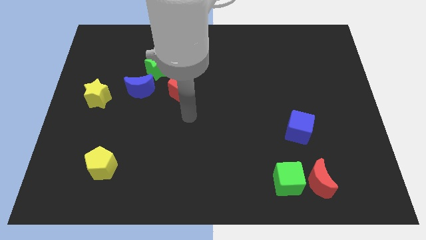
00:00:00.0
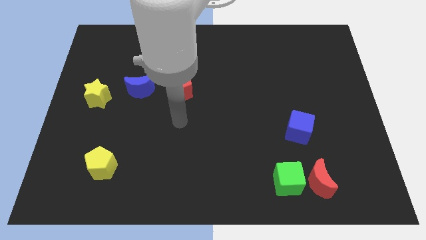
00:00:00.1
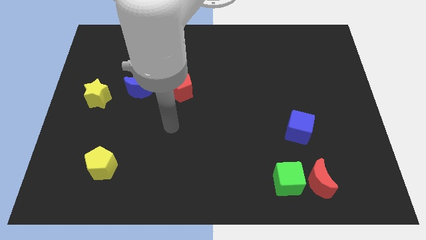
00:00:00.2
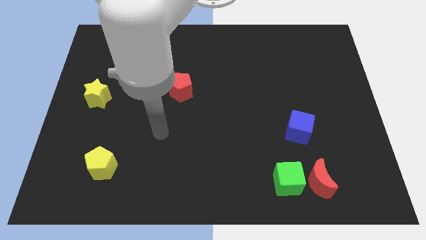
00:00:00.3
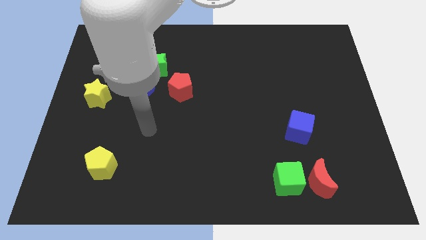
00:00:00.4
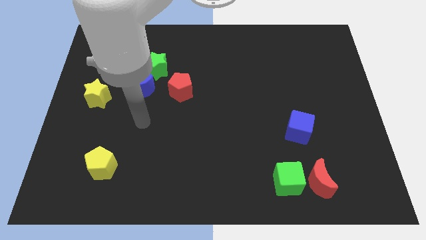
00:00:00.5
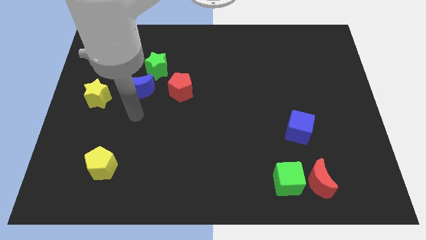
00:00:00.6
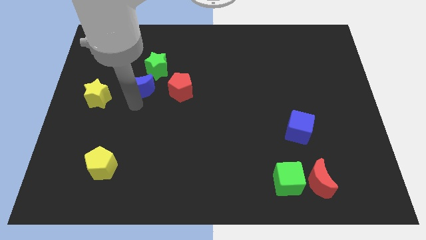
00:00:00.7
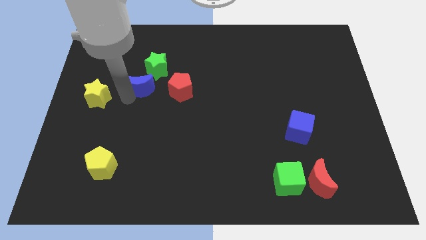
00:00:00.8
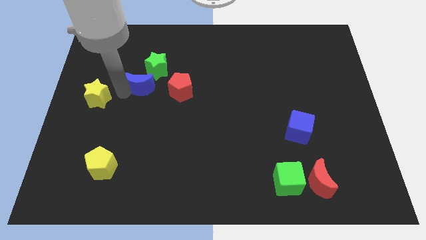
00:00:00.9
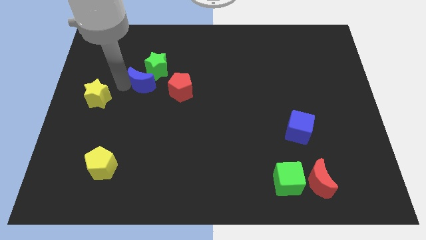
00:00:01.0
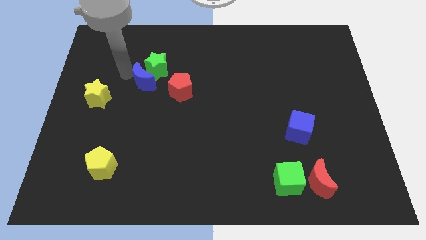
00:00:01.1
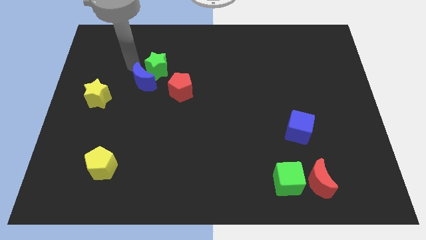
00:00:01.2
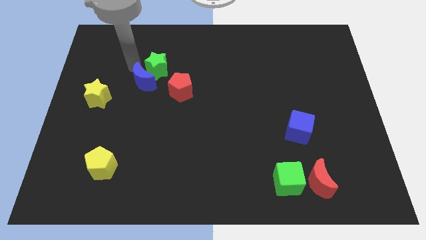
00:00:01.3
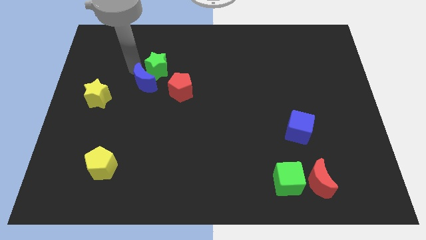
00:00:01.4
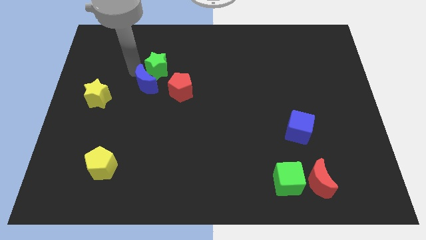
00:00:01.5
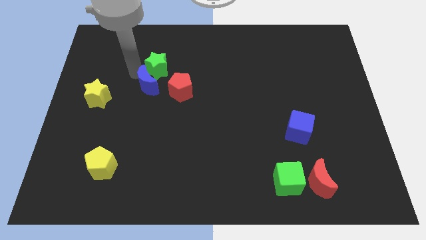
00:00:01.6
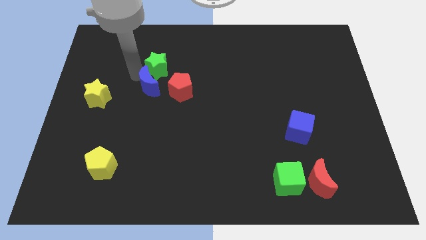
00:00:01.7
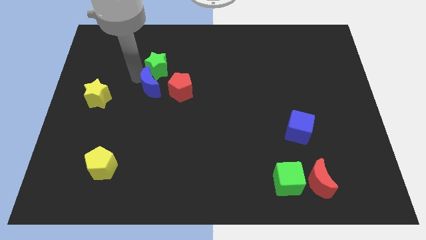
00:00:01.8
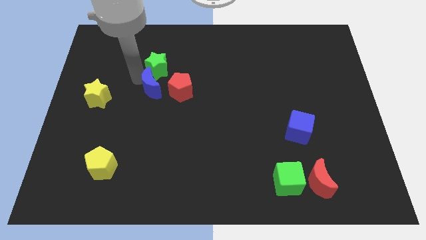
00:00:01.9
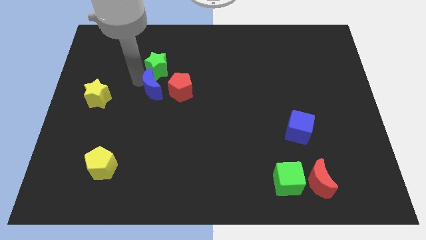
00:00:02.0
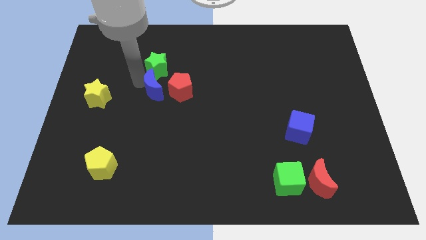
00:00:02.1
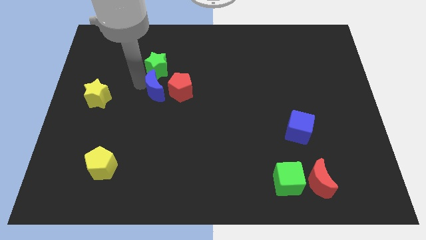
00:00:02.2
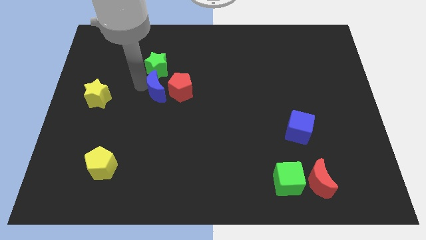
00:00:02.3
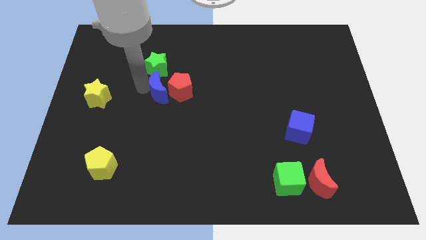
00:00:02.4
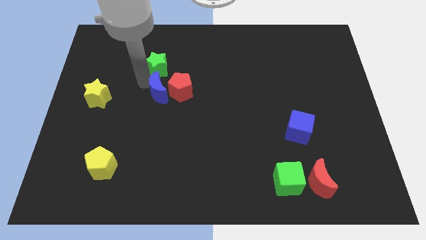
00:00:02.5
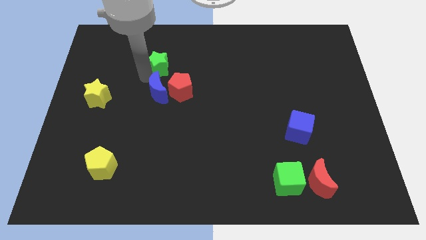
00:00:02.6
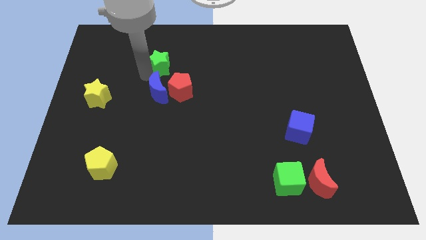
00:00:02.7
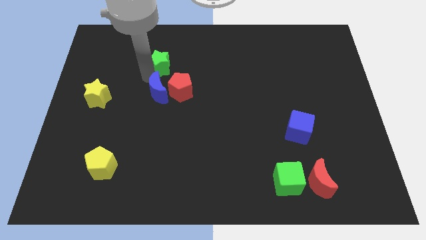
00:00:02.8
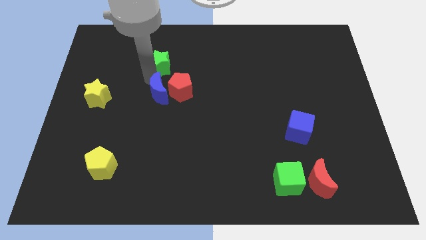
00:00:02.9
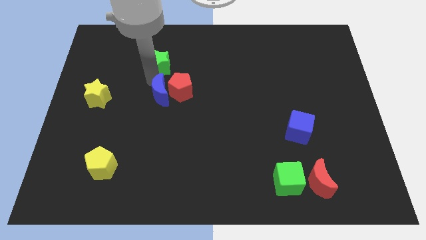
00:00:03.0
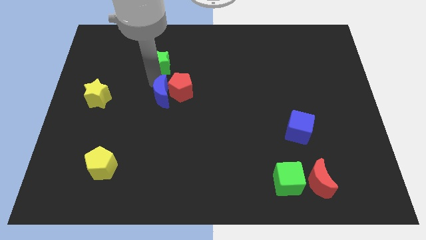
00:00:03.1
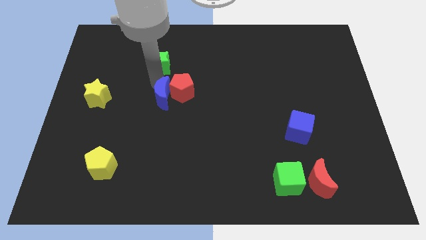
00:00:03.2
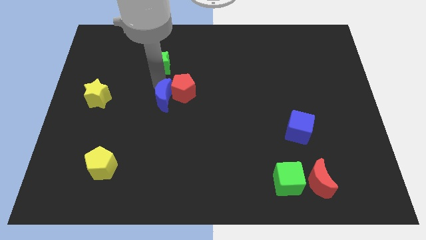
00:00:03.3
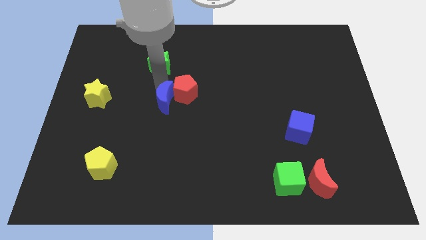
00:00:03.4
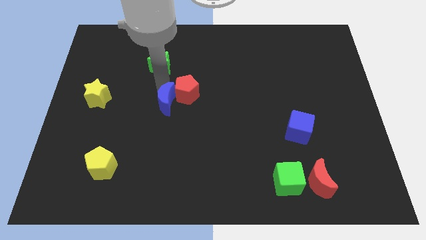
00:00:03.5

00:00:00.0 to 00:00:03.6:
slightly push the blue moon downwards and then to the right

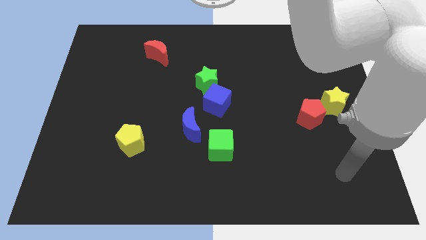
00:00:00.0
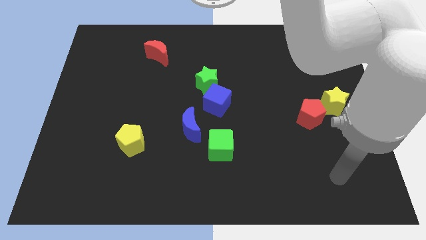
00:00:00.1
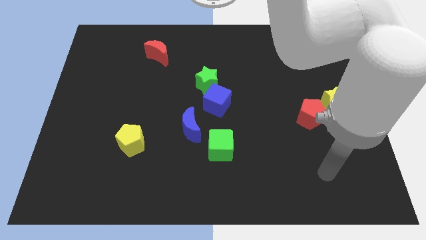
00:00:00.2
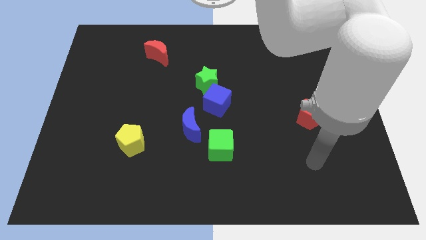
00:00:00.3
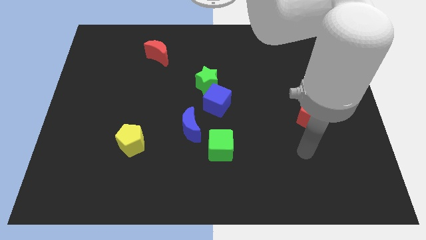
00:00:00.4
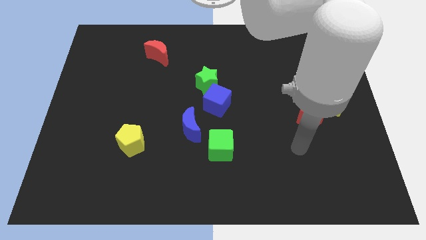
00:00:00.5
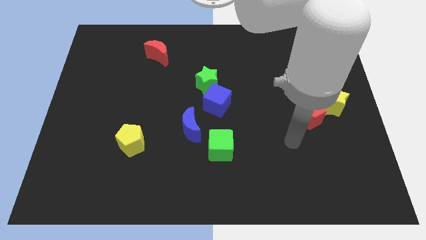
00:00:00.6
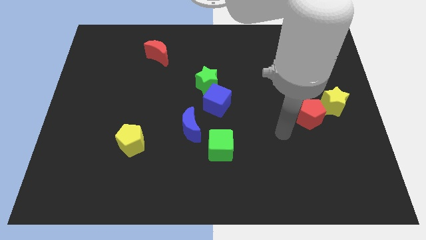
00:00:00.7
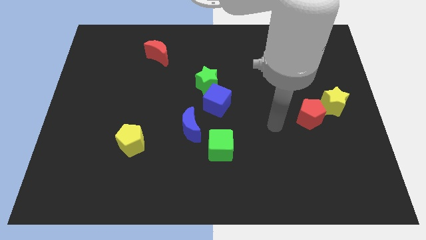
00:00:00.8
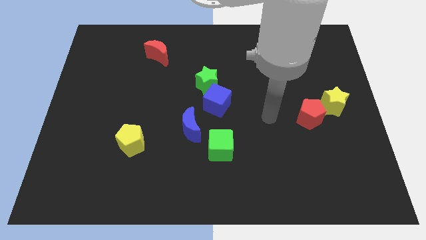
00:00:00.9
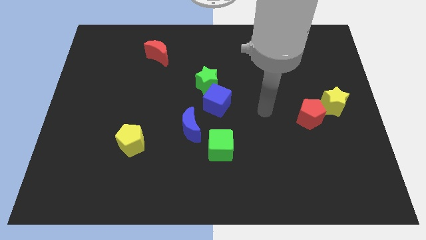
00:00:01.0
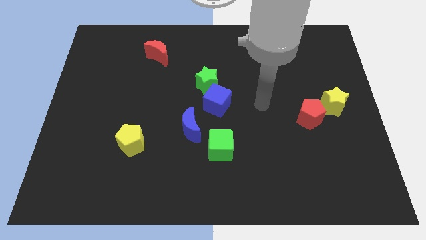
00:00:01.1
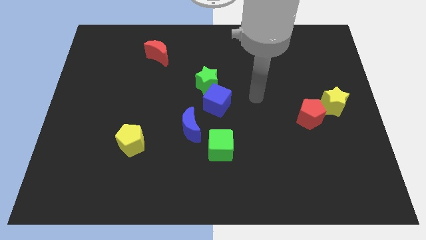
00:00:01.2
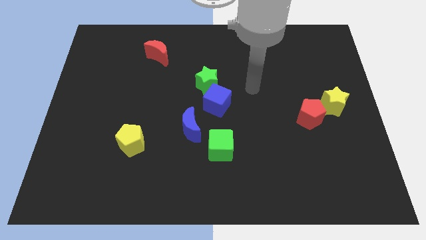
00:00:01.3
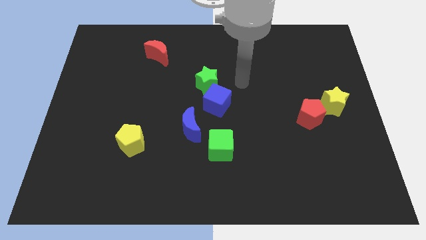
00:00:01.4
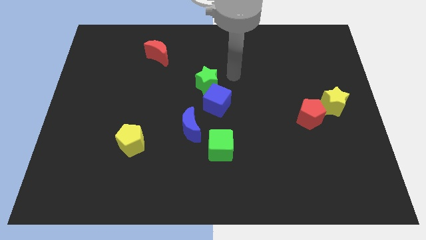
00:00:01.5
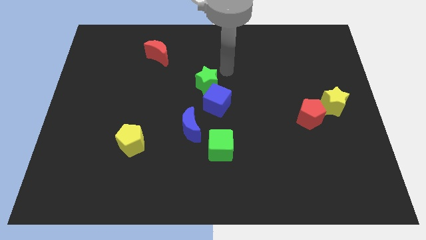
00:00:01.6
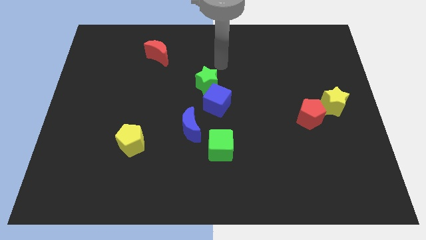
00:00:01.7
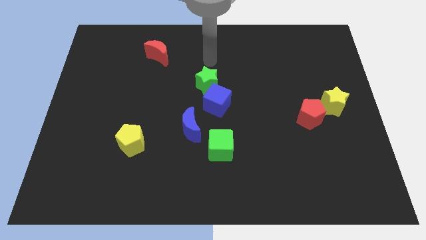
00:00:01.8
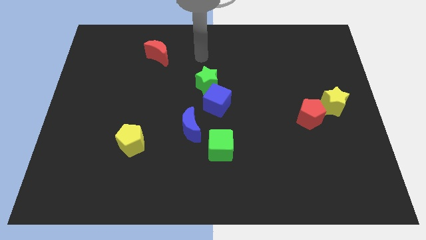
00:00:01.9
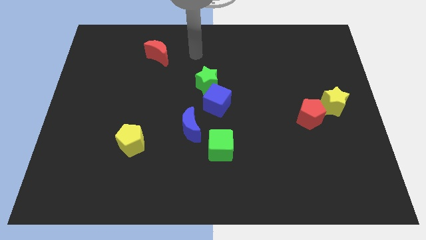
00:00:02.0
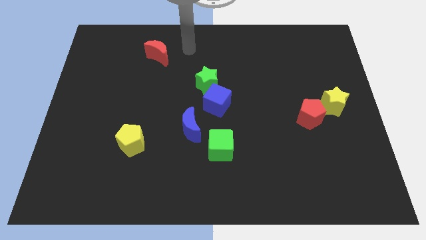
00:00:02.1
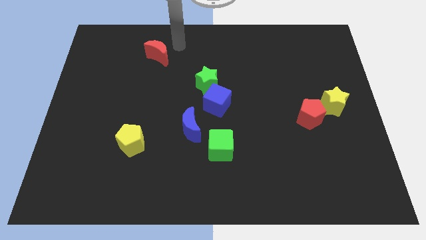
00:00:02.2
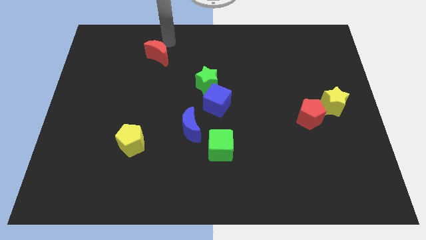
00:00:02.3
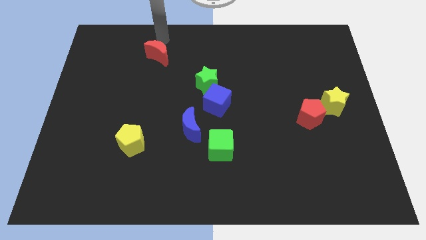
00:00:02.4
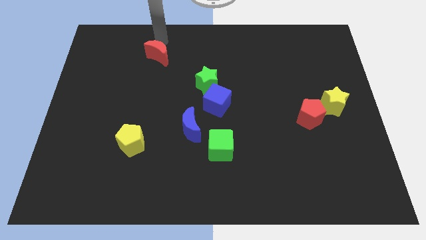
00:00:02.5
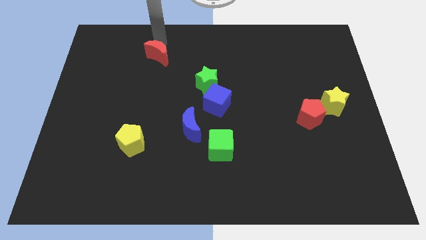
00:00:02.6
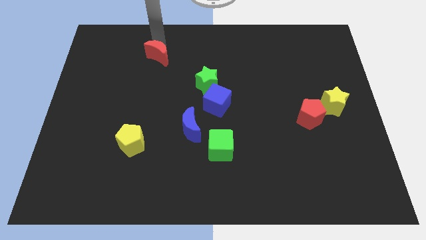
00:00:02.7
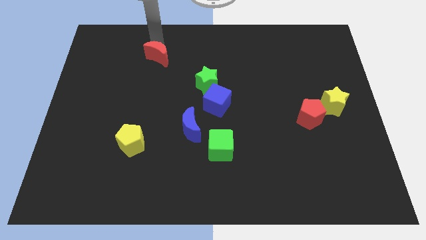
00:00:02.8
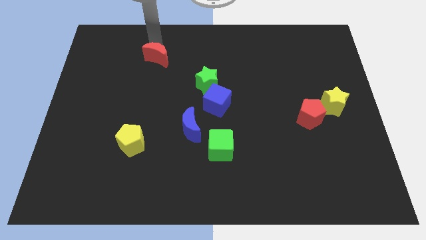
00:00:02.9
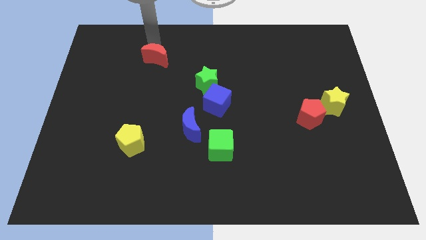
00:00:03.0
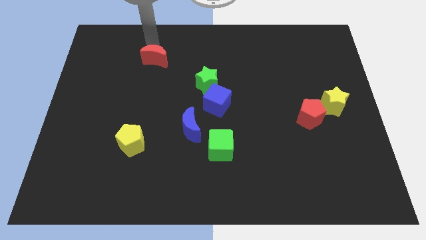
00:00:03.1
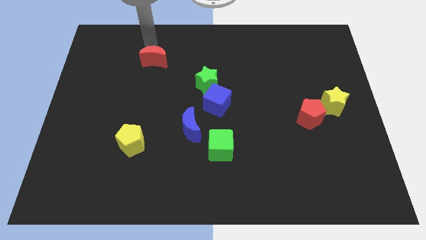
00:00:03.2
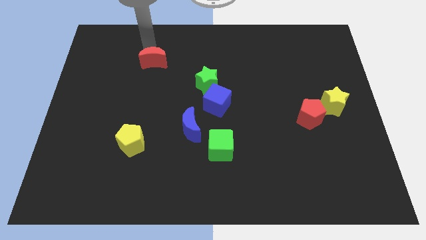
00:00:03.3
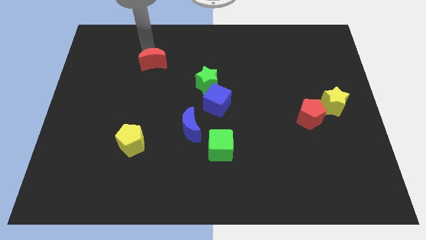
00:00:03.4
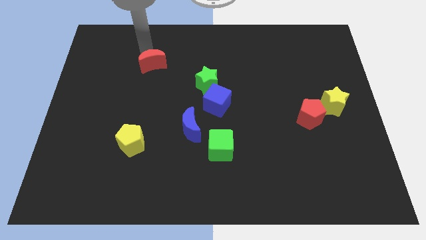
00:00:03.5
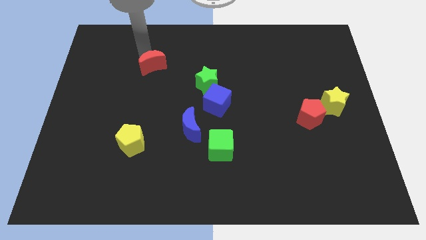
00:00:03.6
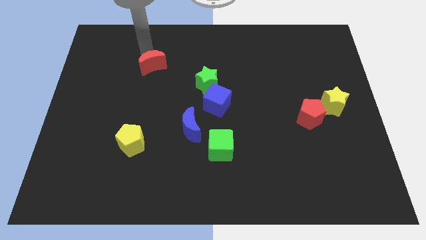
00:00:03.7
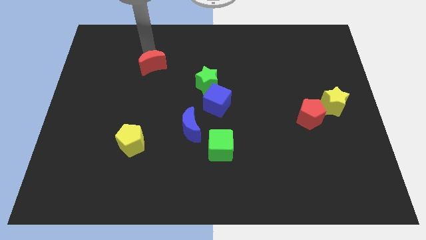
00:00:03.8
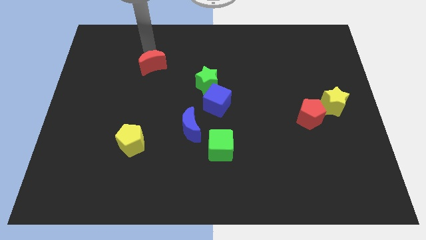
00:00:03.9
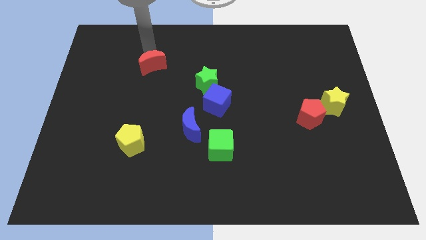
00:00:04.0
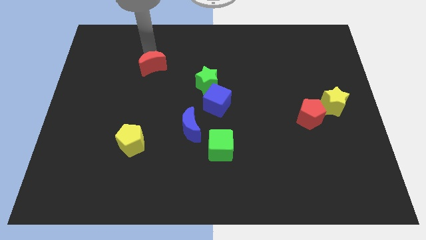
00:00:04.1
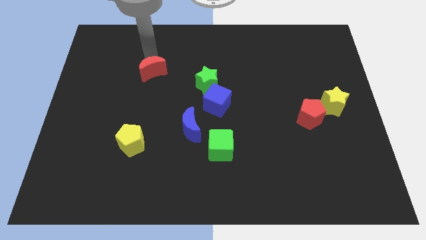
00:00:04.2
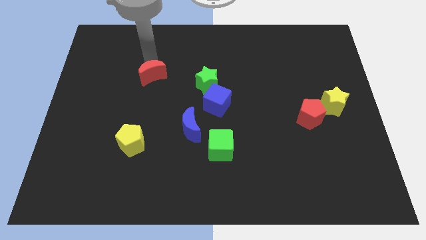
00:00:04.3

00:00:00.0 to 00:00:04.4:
slightly push the red moon down

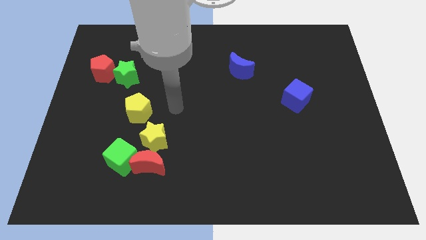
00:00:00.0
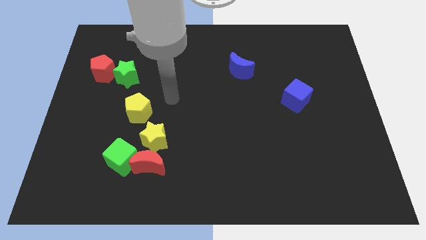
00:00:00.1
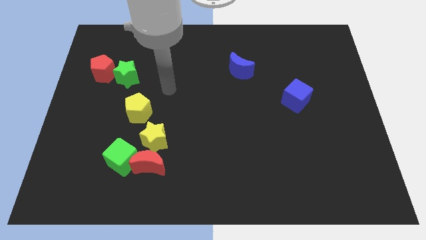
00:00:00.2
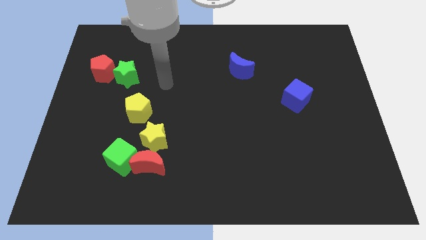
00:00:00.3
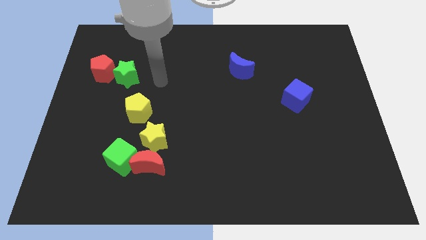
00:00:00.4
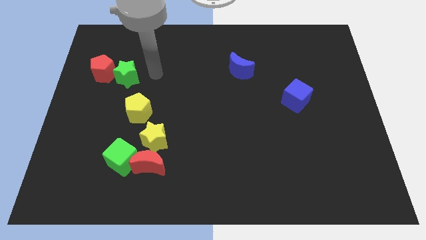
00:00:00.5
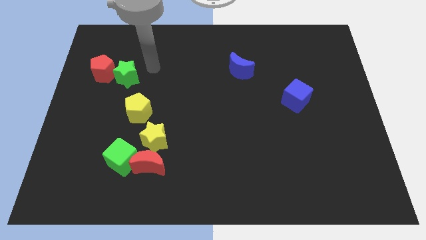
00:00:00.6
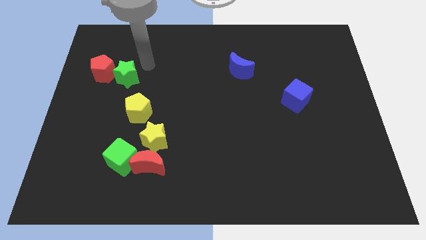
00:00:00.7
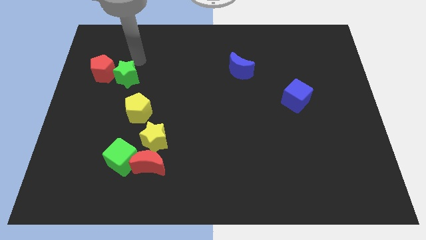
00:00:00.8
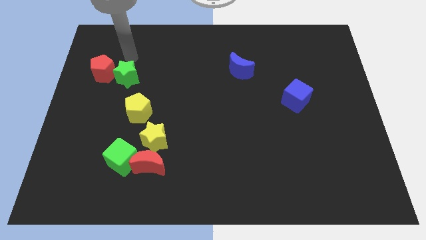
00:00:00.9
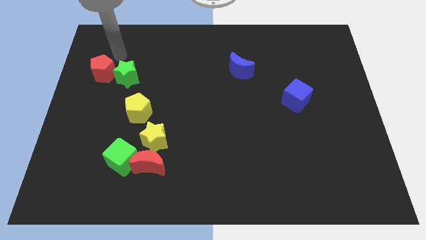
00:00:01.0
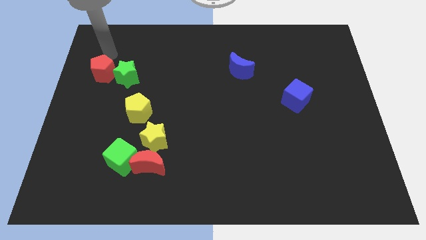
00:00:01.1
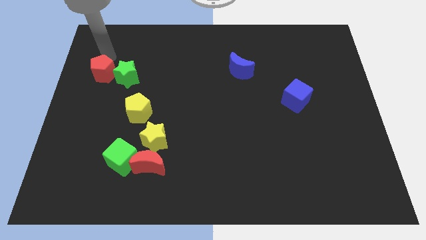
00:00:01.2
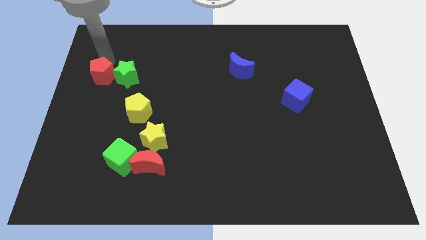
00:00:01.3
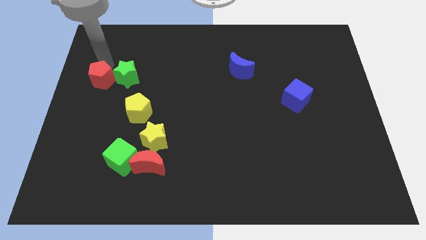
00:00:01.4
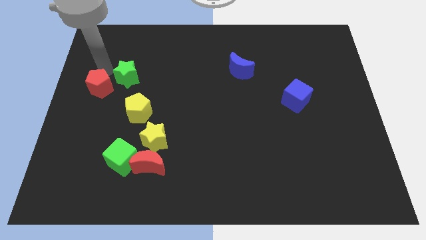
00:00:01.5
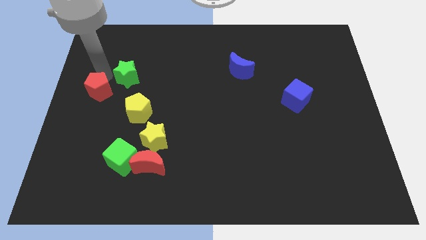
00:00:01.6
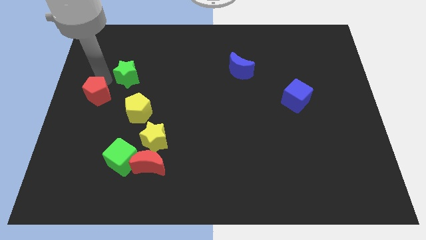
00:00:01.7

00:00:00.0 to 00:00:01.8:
move the red pentagon down slightly
